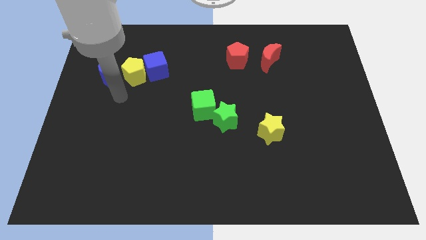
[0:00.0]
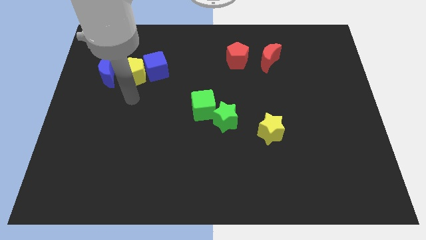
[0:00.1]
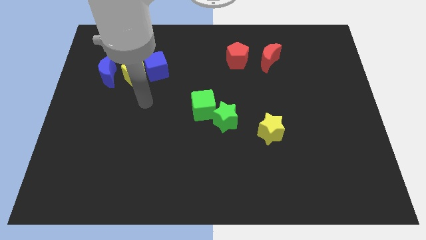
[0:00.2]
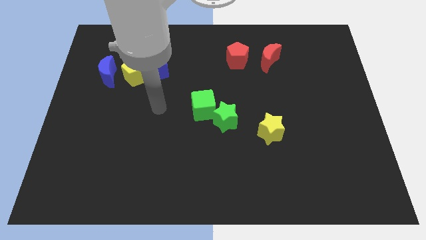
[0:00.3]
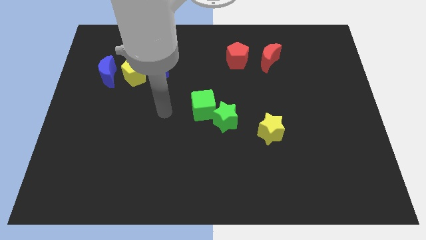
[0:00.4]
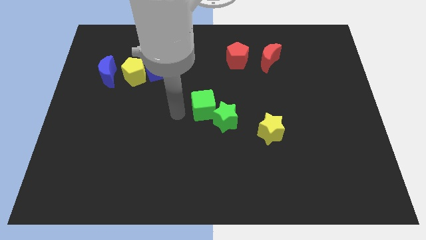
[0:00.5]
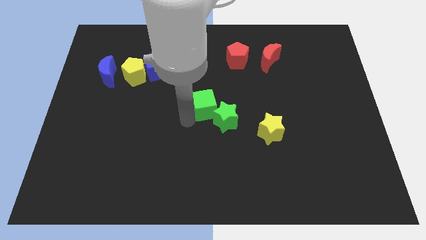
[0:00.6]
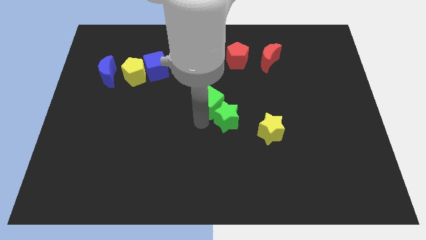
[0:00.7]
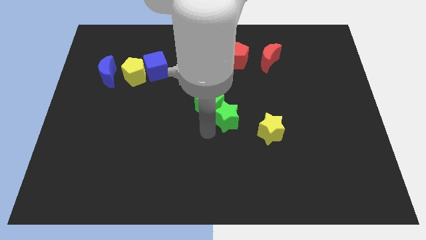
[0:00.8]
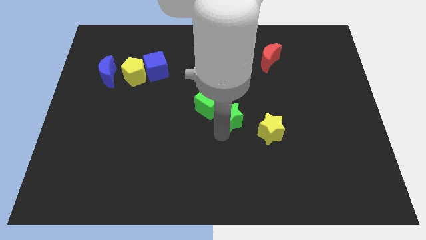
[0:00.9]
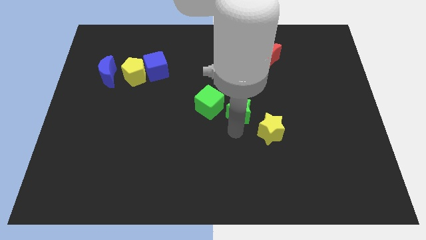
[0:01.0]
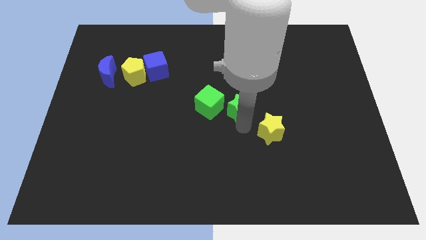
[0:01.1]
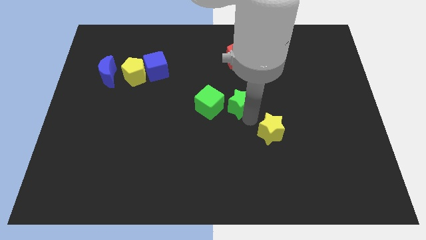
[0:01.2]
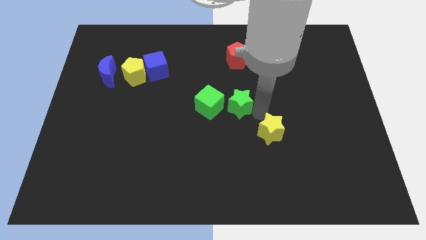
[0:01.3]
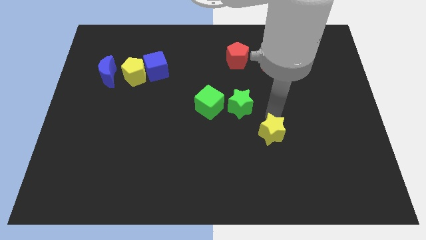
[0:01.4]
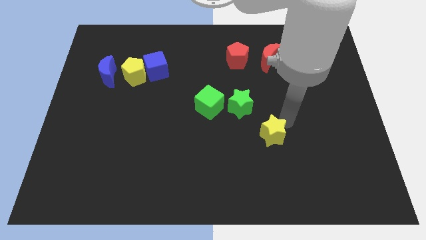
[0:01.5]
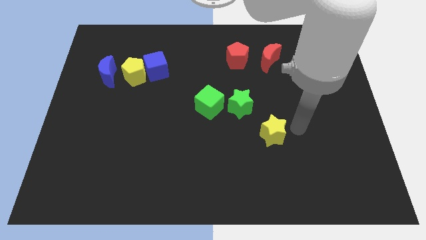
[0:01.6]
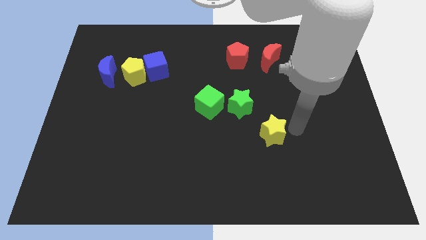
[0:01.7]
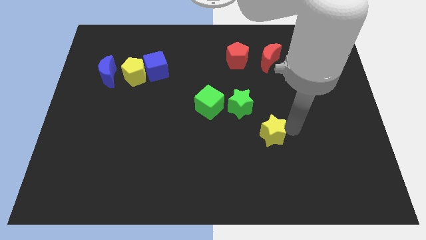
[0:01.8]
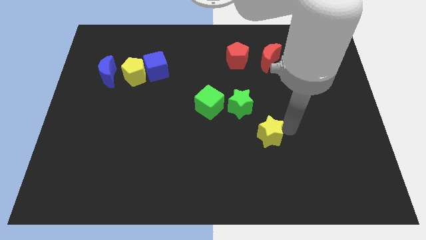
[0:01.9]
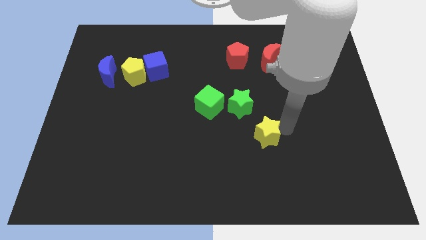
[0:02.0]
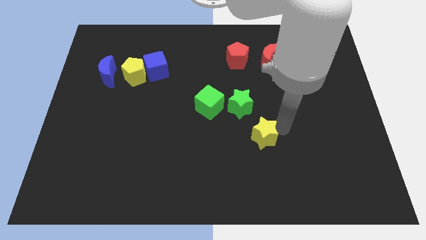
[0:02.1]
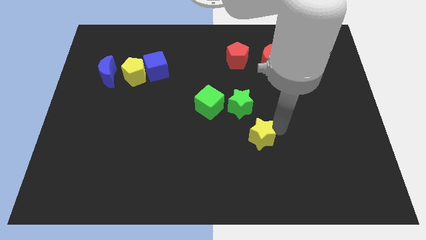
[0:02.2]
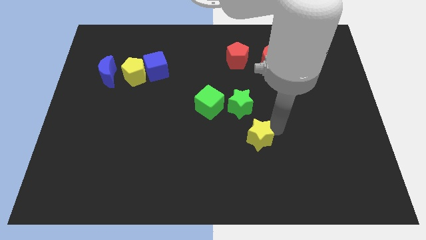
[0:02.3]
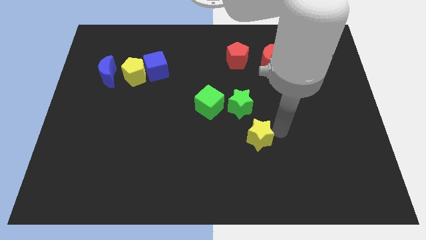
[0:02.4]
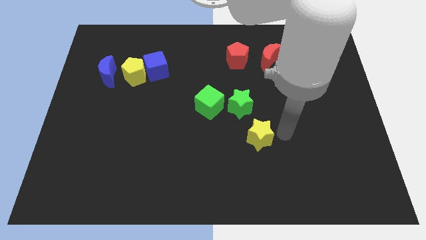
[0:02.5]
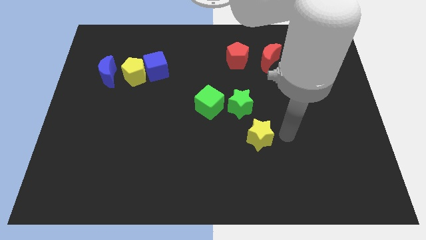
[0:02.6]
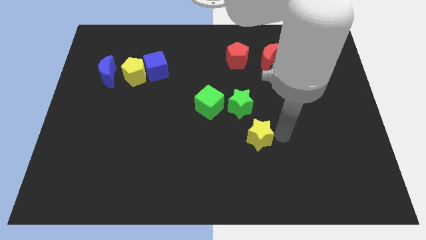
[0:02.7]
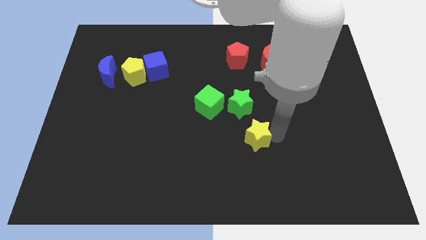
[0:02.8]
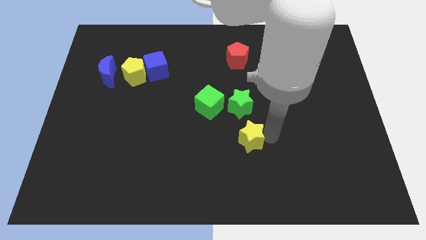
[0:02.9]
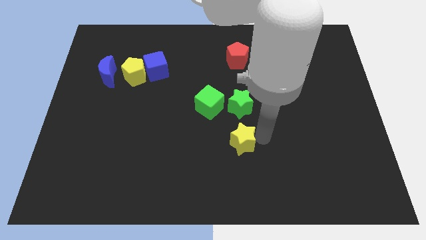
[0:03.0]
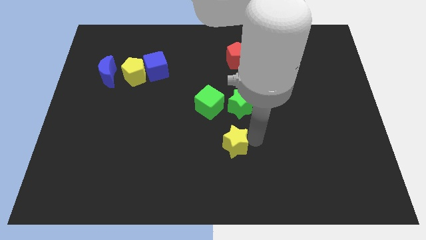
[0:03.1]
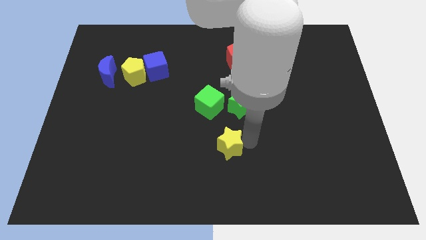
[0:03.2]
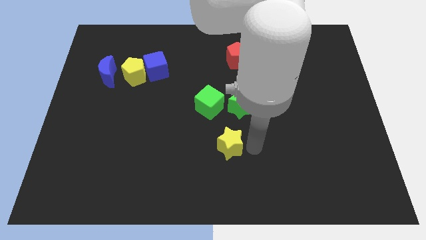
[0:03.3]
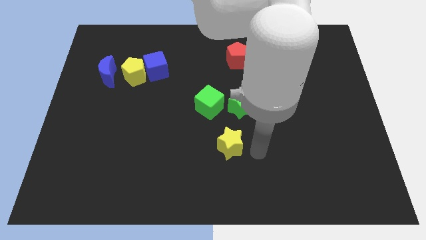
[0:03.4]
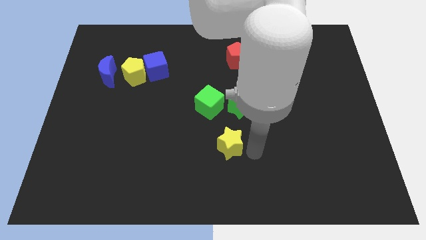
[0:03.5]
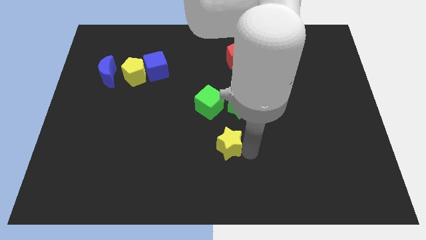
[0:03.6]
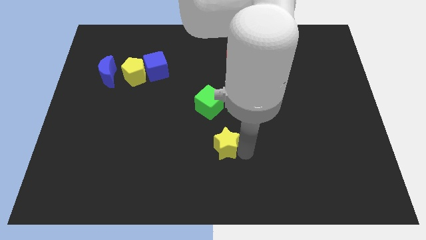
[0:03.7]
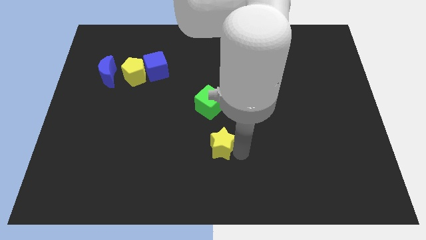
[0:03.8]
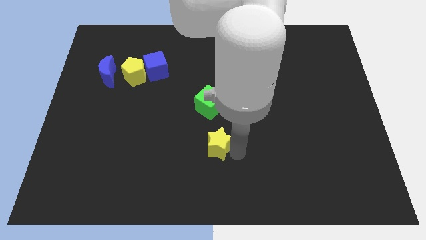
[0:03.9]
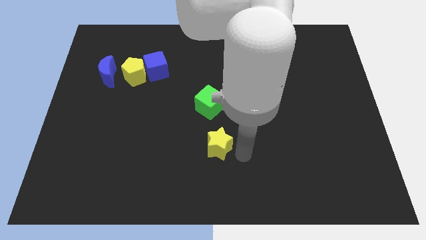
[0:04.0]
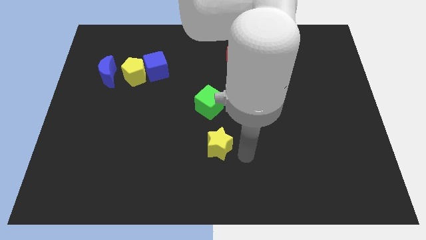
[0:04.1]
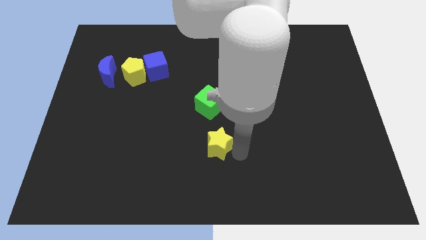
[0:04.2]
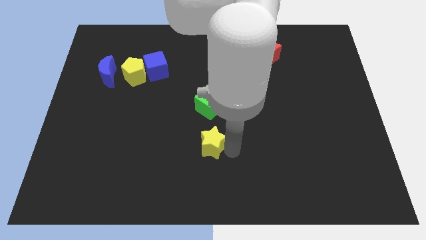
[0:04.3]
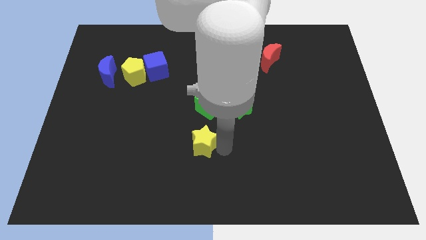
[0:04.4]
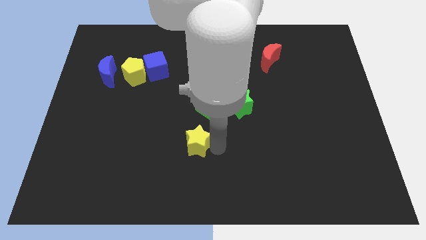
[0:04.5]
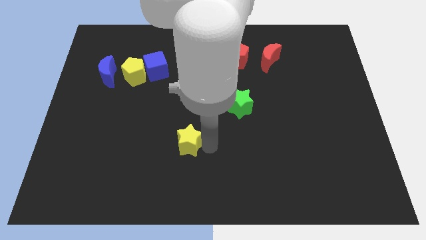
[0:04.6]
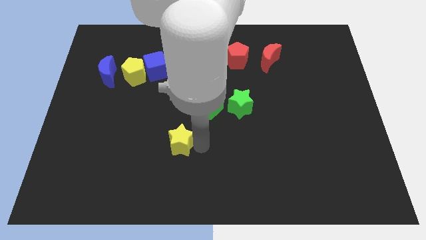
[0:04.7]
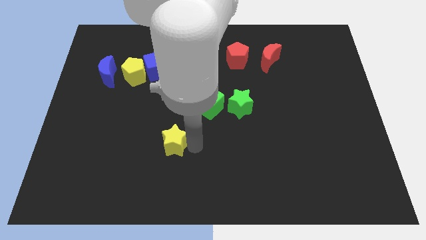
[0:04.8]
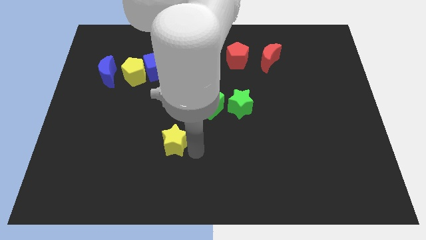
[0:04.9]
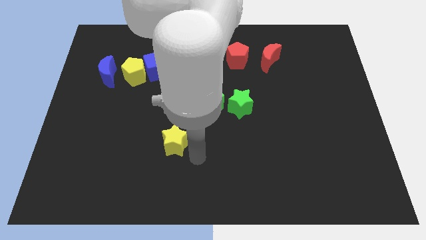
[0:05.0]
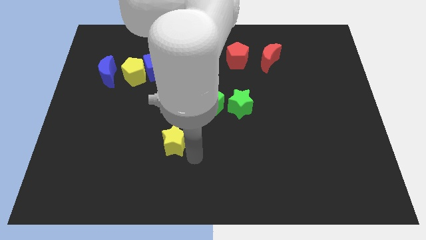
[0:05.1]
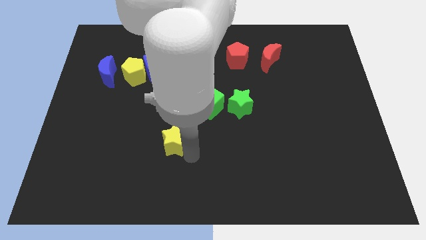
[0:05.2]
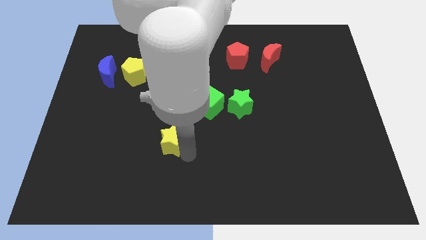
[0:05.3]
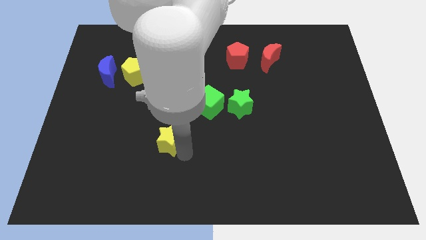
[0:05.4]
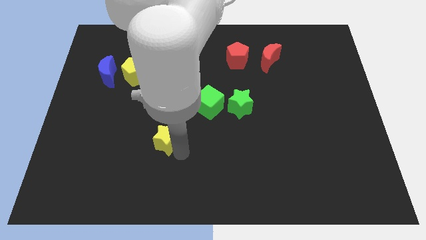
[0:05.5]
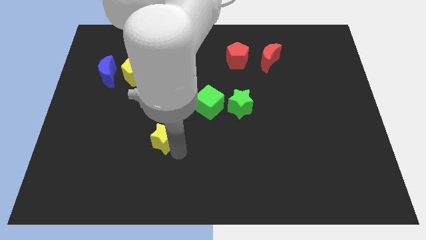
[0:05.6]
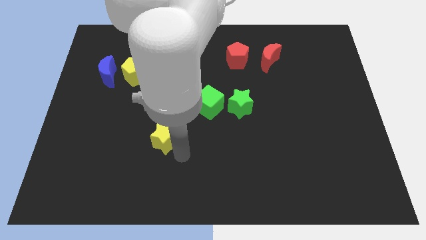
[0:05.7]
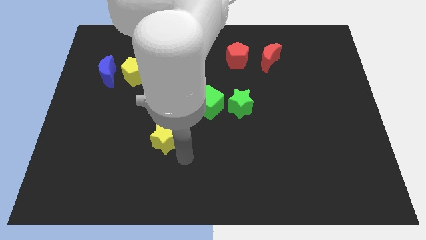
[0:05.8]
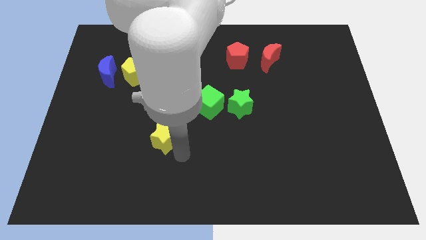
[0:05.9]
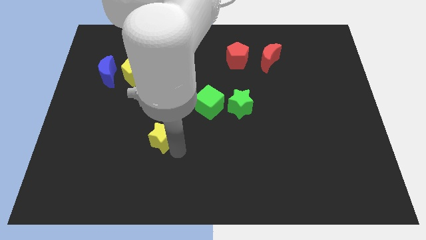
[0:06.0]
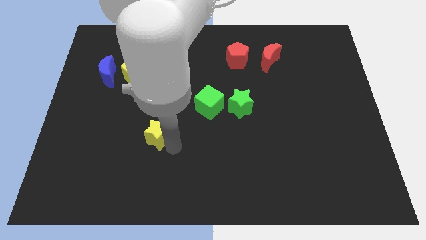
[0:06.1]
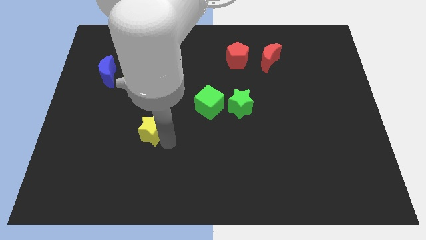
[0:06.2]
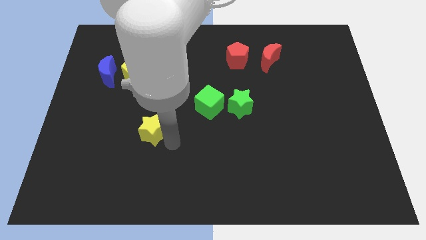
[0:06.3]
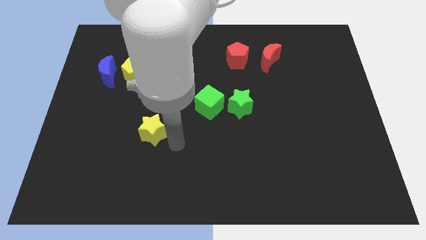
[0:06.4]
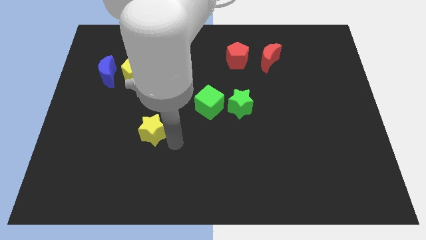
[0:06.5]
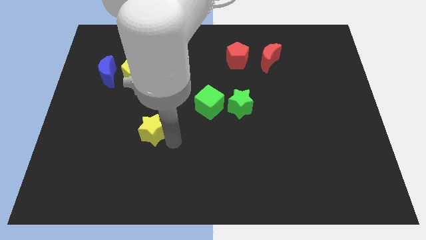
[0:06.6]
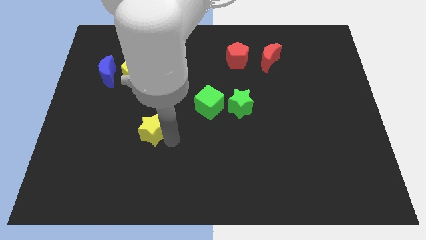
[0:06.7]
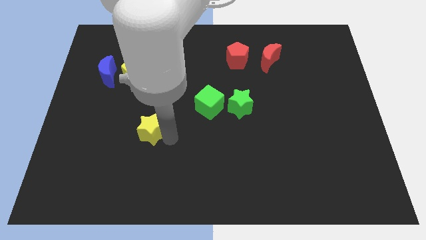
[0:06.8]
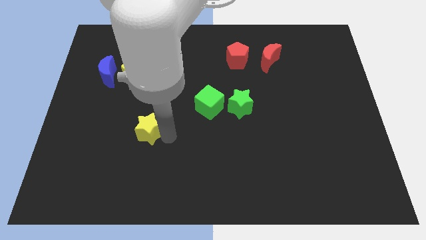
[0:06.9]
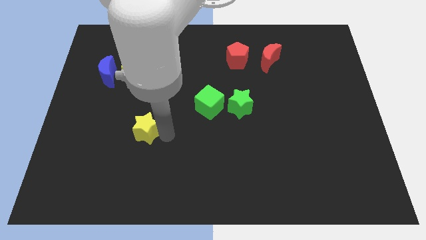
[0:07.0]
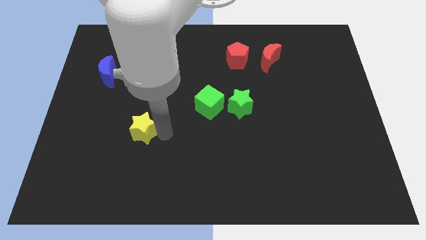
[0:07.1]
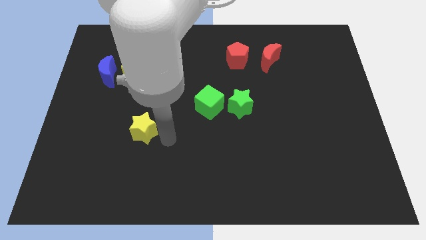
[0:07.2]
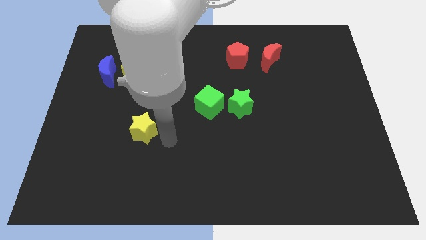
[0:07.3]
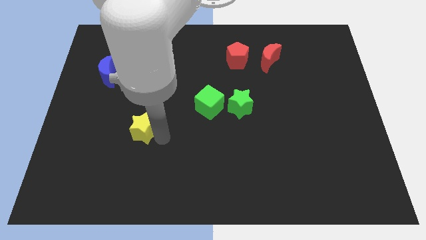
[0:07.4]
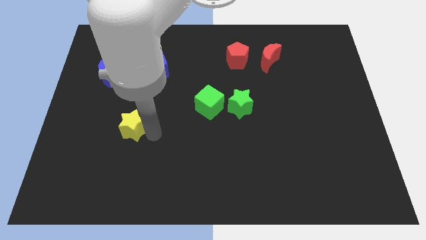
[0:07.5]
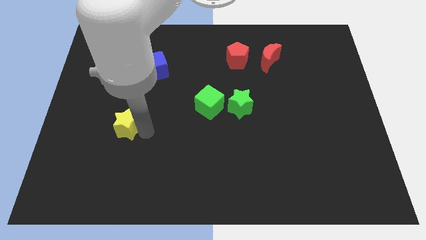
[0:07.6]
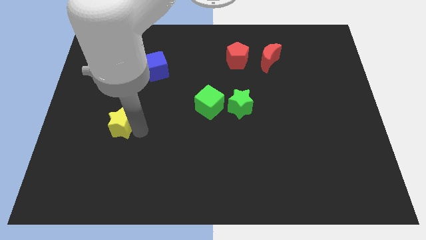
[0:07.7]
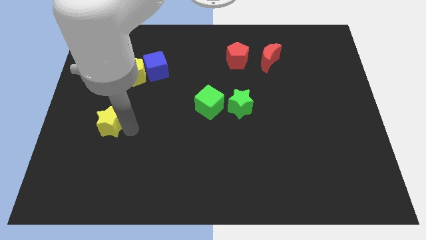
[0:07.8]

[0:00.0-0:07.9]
move the yellow star to the bottom side of the blue moon
